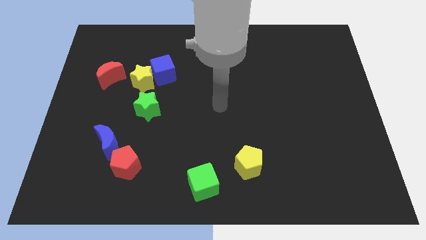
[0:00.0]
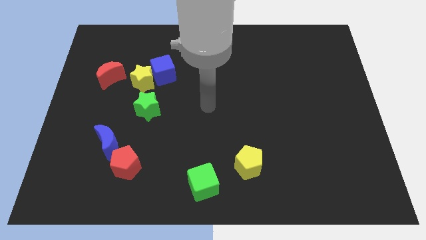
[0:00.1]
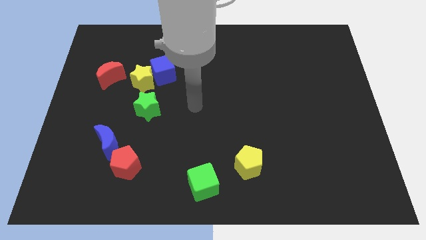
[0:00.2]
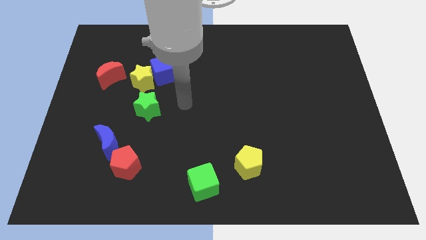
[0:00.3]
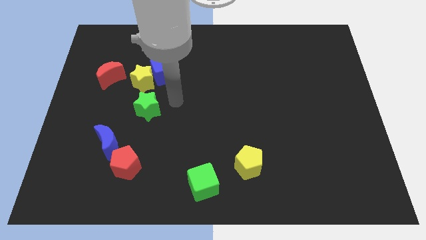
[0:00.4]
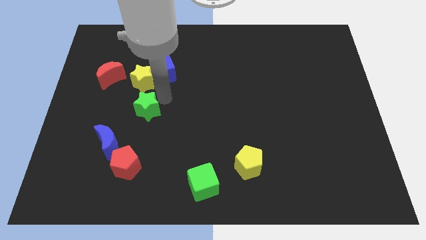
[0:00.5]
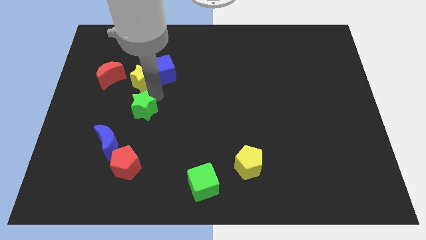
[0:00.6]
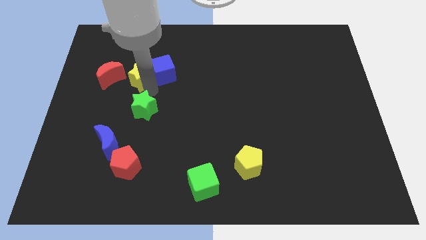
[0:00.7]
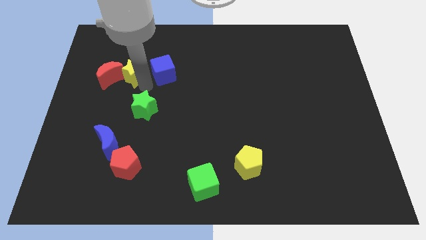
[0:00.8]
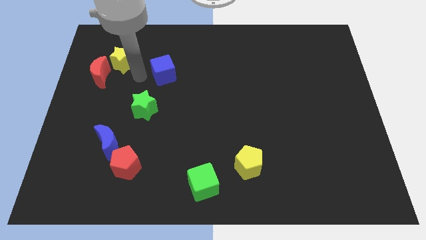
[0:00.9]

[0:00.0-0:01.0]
separate the blue cube from the yellow star

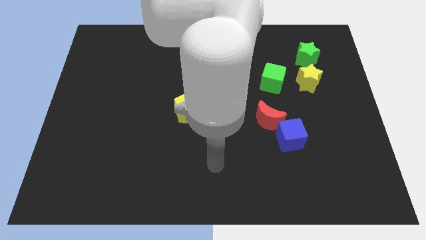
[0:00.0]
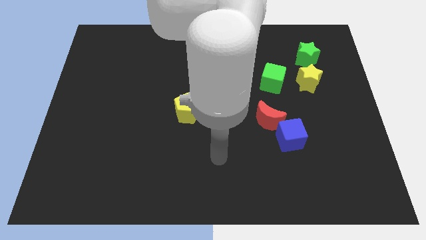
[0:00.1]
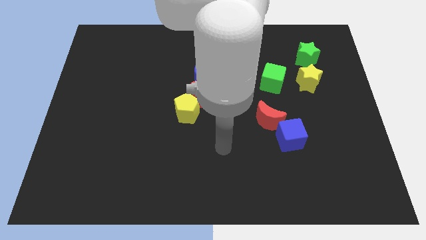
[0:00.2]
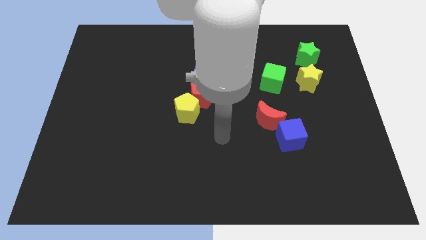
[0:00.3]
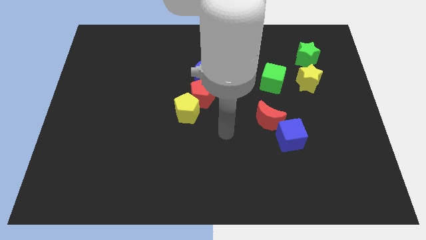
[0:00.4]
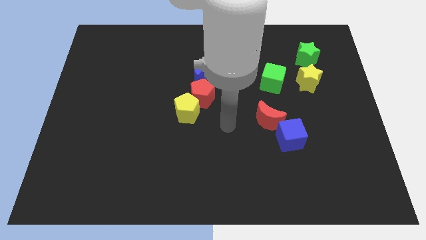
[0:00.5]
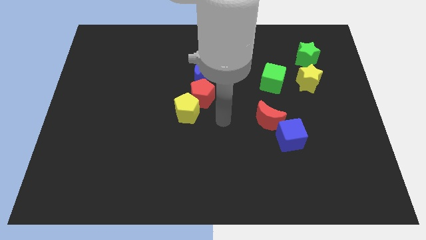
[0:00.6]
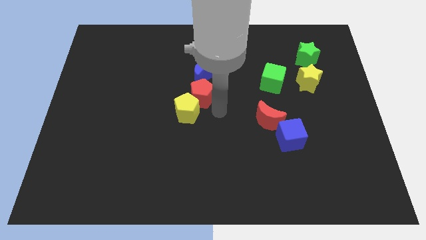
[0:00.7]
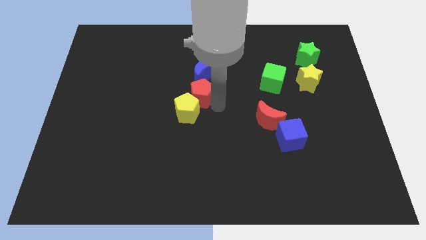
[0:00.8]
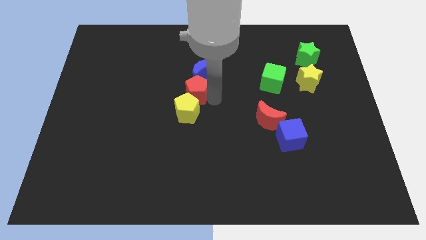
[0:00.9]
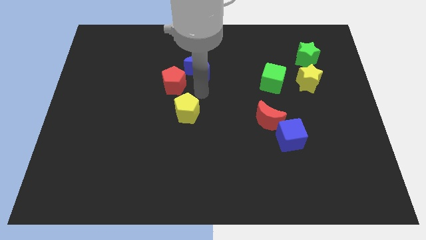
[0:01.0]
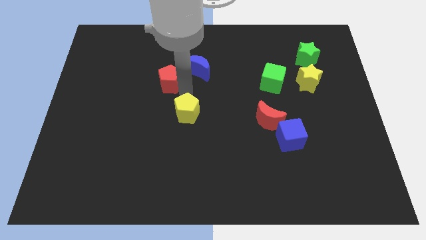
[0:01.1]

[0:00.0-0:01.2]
pull the yellow pentagon apart from the red pentagon

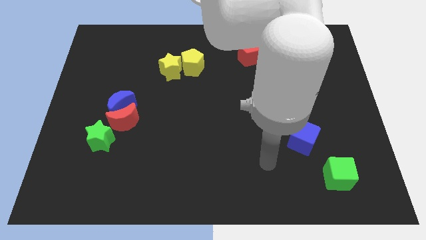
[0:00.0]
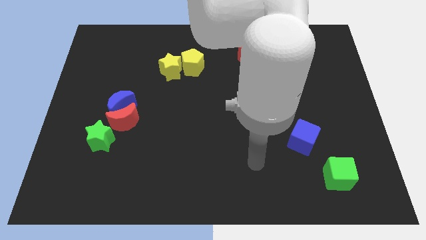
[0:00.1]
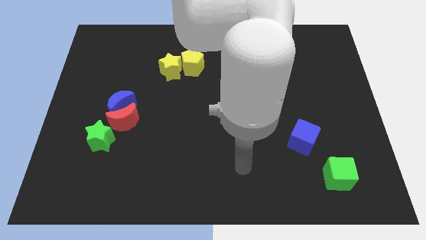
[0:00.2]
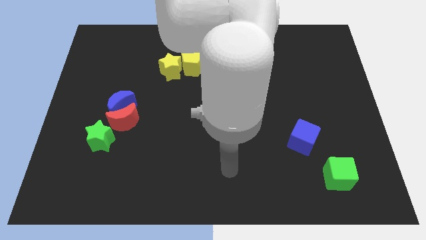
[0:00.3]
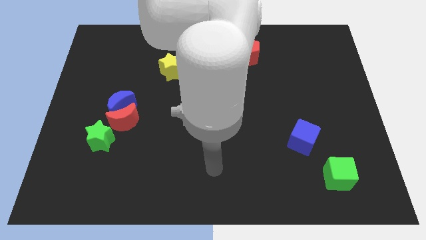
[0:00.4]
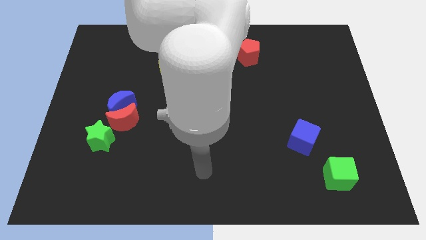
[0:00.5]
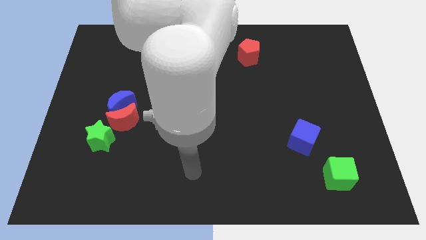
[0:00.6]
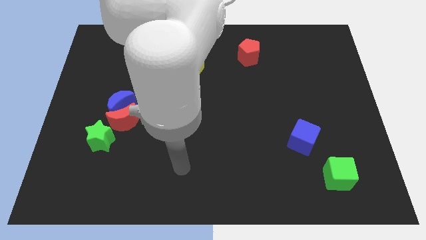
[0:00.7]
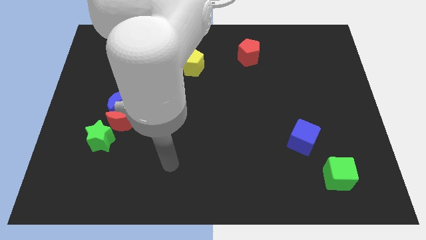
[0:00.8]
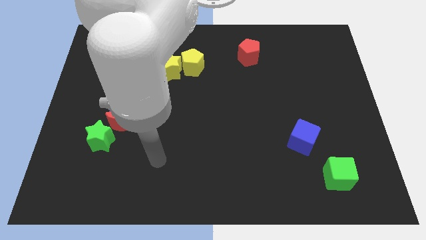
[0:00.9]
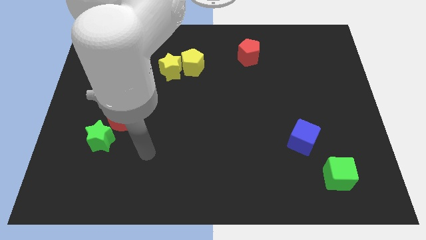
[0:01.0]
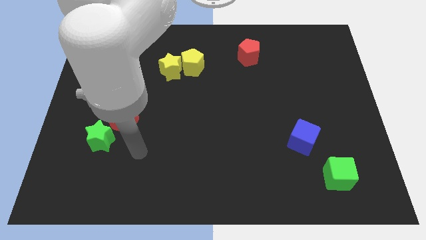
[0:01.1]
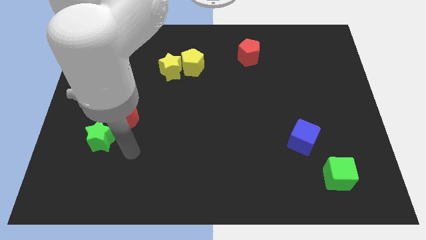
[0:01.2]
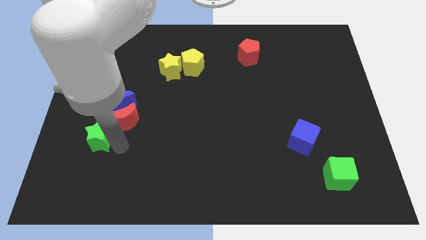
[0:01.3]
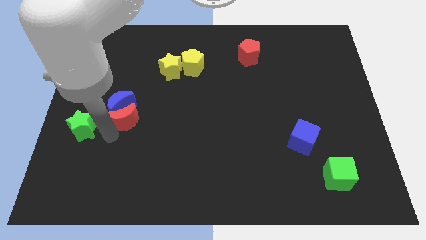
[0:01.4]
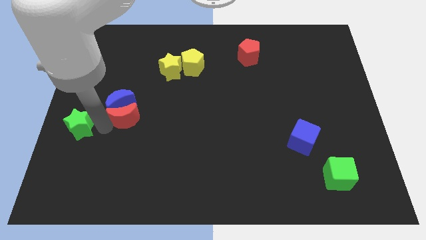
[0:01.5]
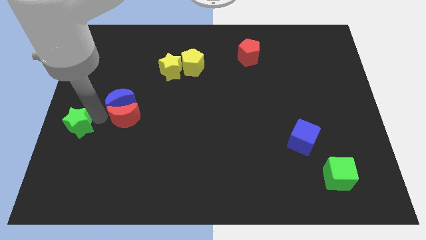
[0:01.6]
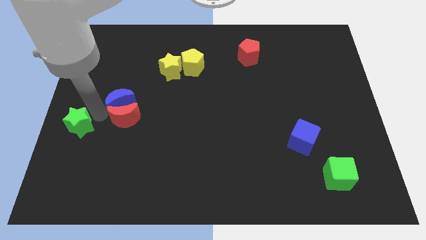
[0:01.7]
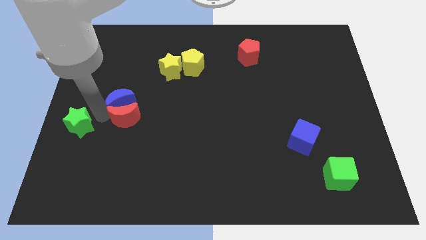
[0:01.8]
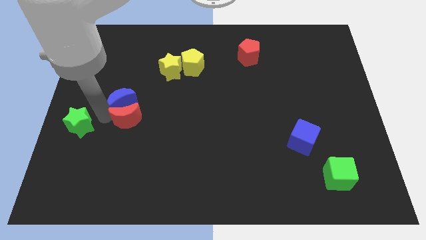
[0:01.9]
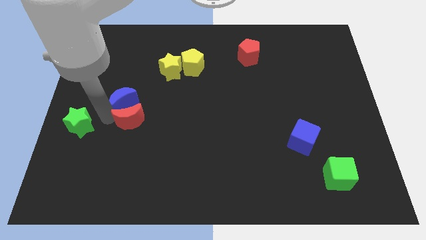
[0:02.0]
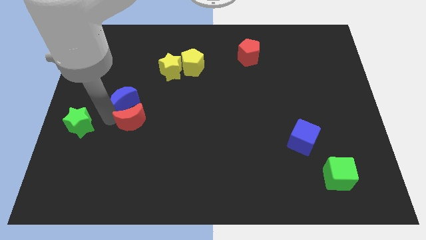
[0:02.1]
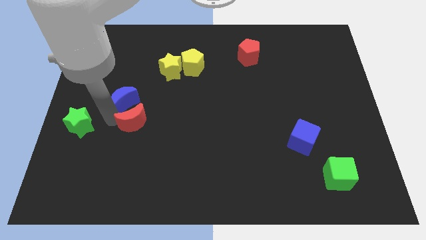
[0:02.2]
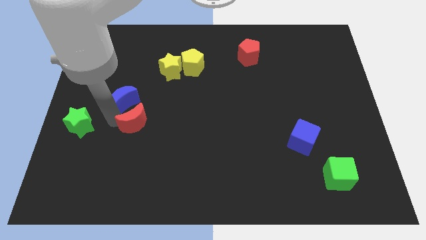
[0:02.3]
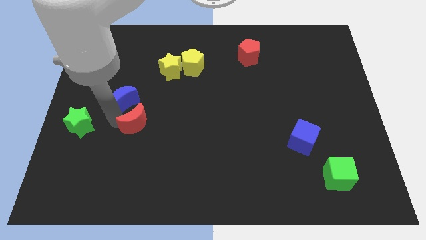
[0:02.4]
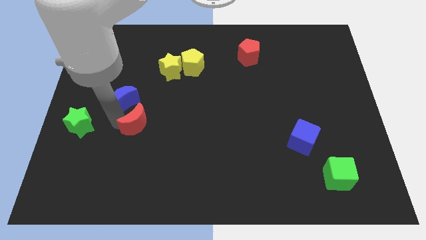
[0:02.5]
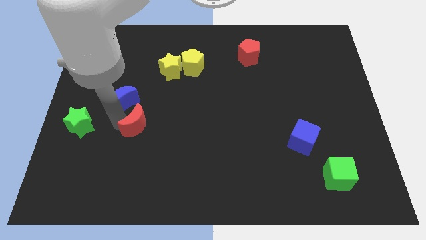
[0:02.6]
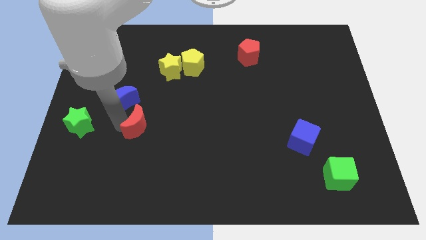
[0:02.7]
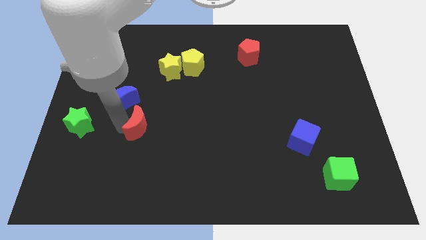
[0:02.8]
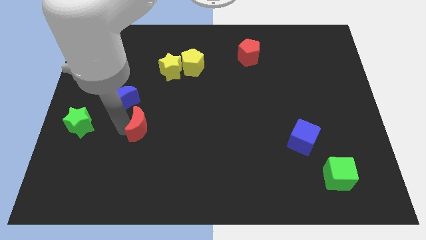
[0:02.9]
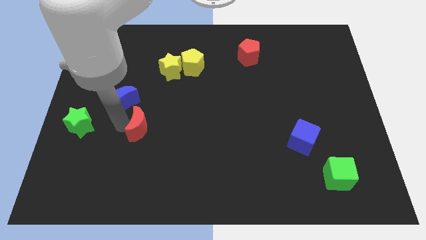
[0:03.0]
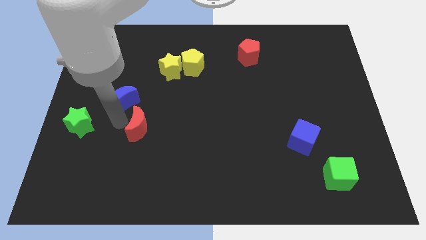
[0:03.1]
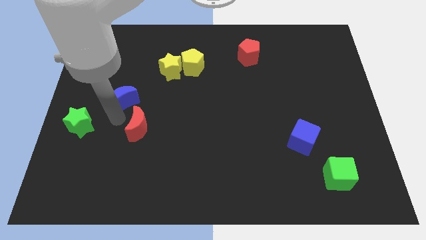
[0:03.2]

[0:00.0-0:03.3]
move the red moon away from the blue moon and green star

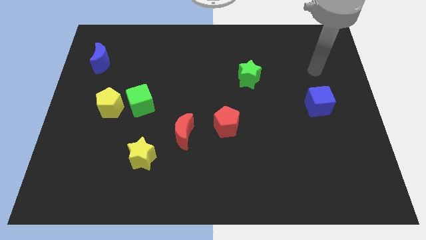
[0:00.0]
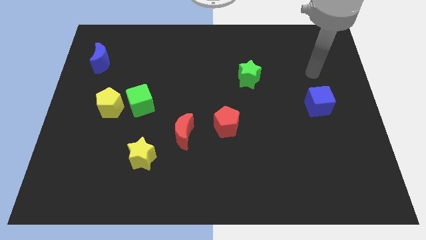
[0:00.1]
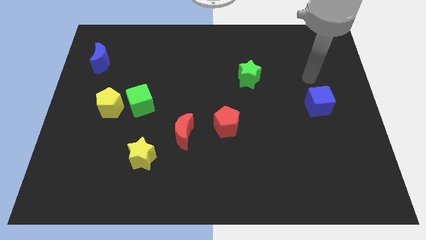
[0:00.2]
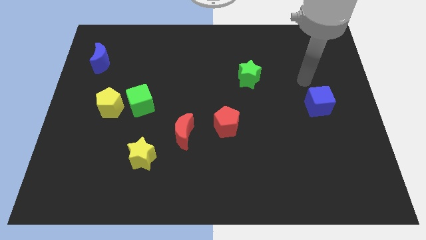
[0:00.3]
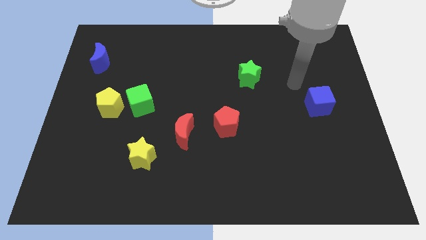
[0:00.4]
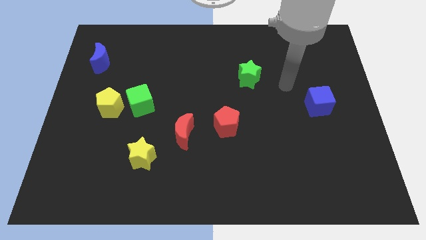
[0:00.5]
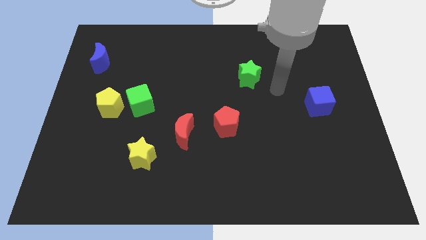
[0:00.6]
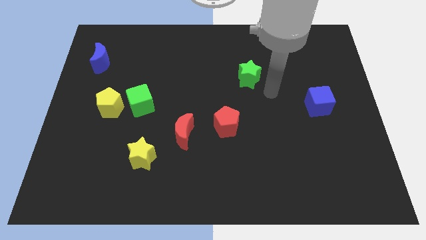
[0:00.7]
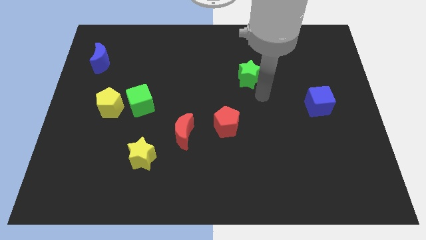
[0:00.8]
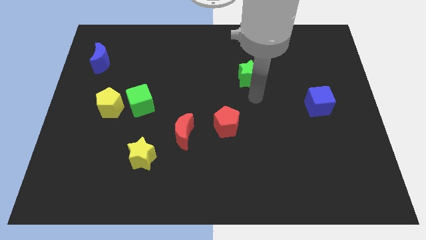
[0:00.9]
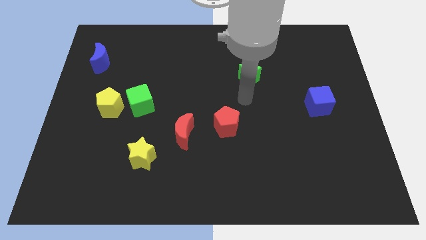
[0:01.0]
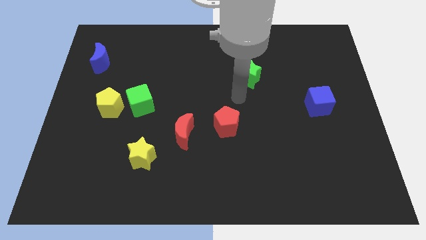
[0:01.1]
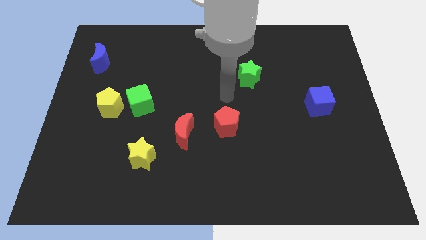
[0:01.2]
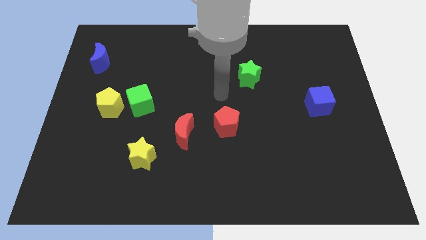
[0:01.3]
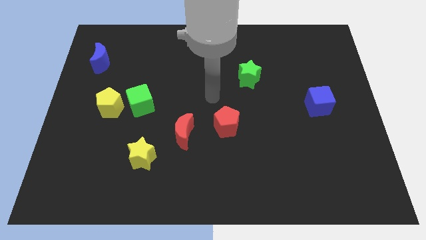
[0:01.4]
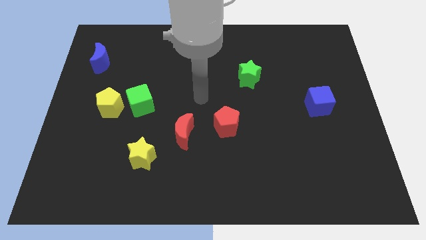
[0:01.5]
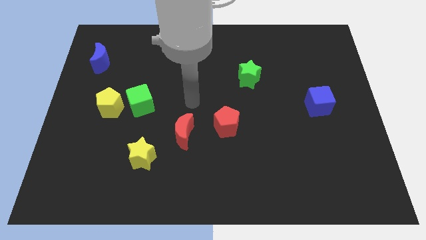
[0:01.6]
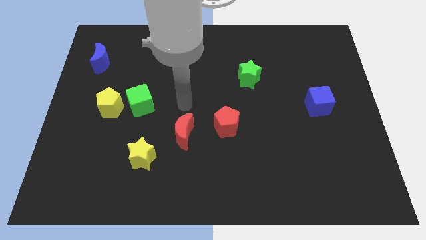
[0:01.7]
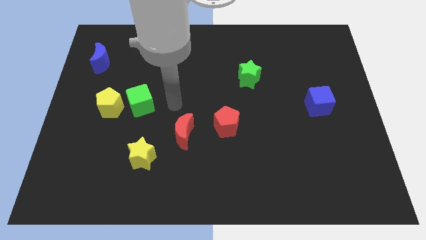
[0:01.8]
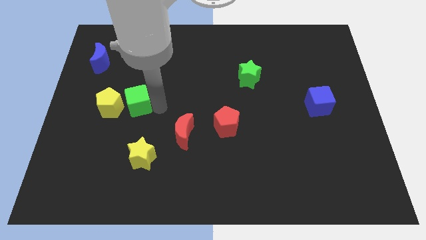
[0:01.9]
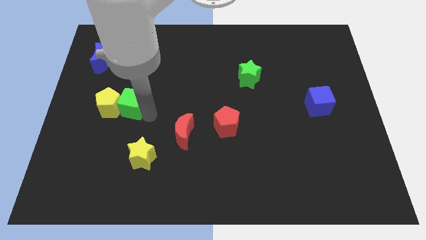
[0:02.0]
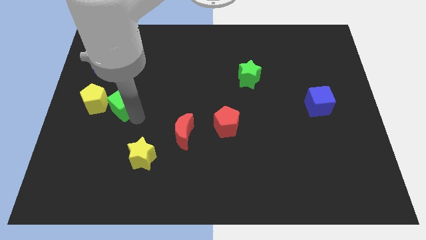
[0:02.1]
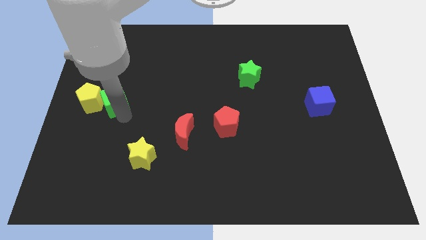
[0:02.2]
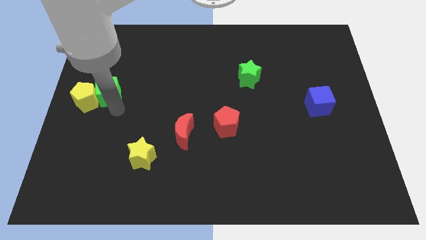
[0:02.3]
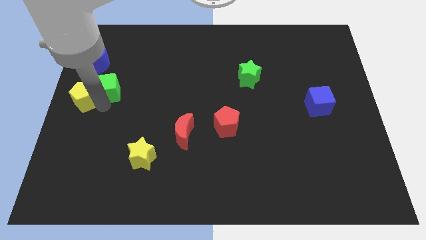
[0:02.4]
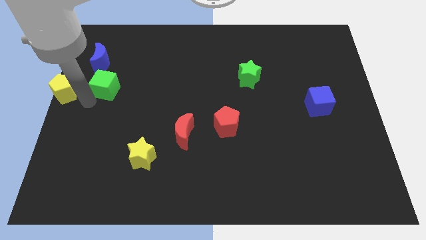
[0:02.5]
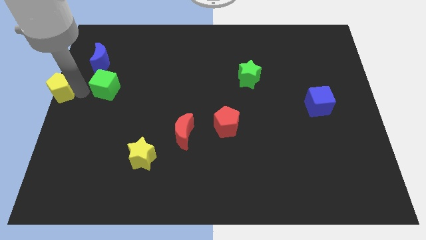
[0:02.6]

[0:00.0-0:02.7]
move the green cube away from the yellow pentagon

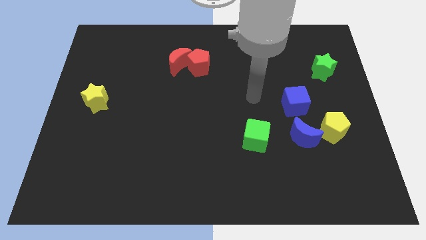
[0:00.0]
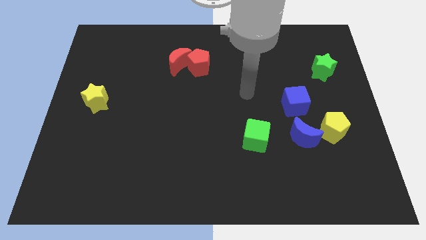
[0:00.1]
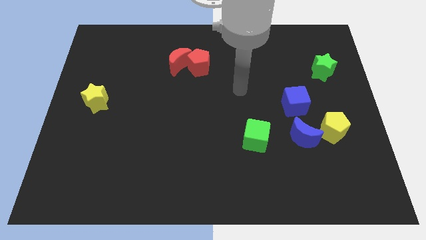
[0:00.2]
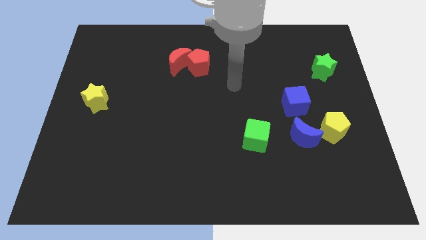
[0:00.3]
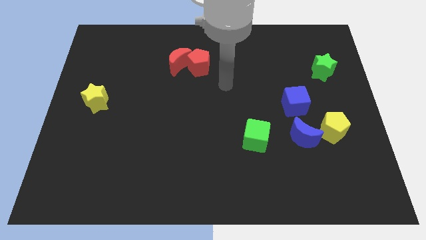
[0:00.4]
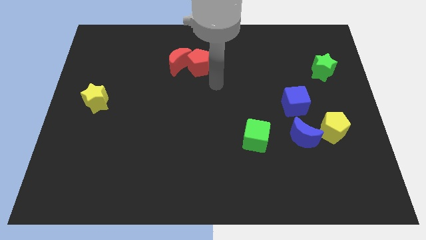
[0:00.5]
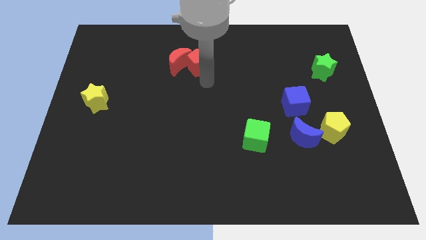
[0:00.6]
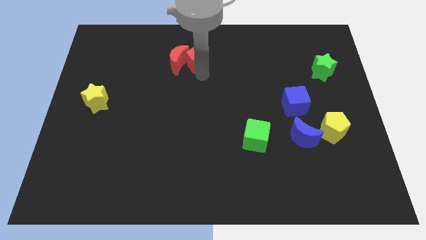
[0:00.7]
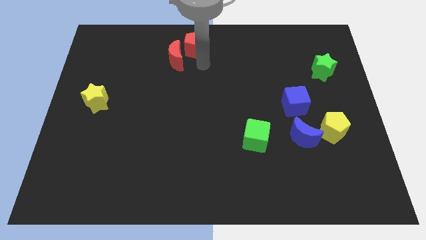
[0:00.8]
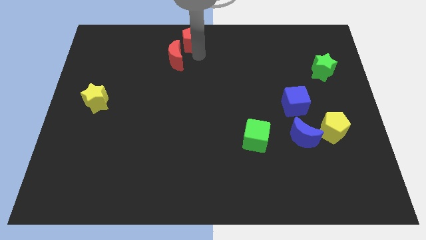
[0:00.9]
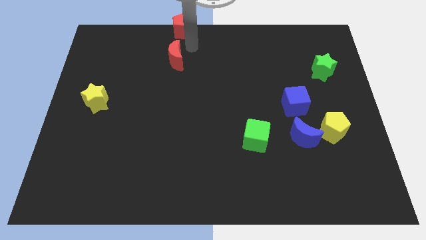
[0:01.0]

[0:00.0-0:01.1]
move the red moon away from the red pentagon
